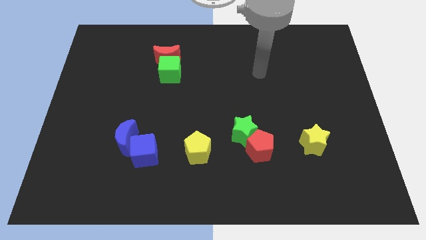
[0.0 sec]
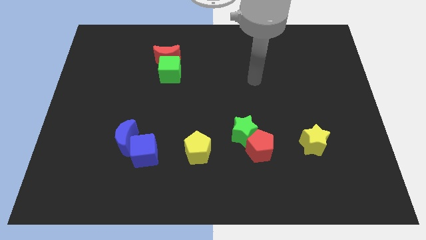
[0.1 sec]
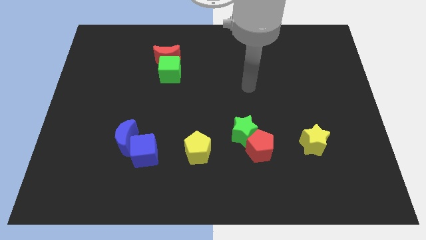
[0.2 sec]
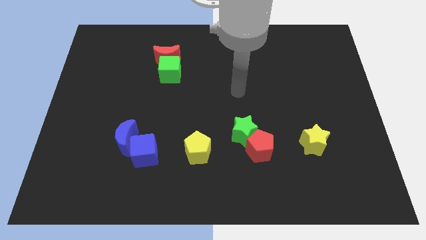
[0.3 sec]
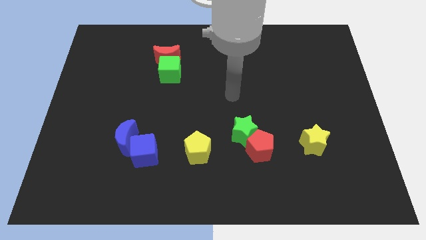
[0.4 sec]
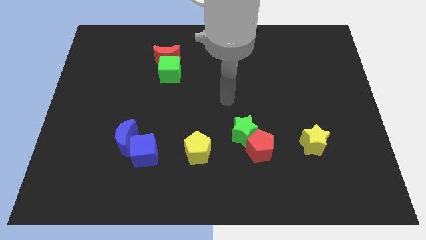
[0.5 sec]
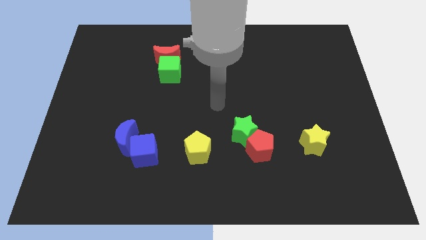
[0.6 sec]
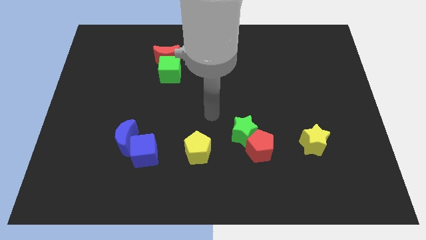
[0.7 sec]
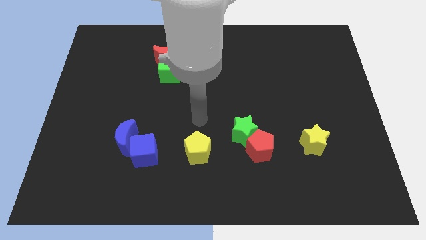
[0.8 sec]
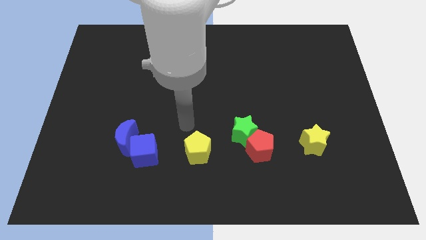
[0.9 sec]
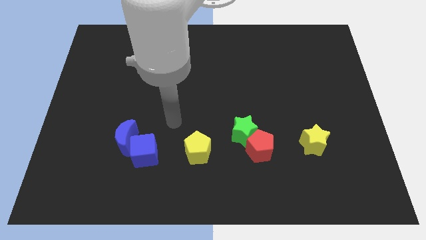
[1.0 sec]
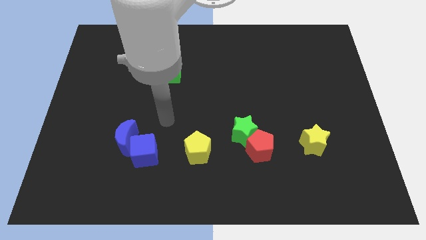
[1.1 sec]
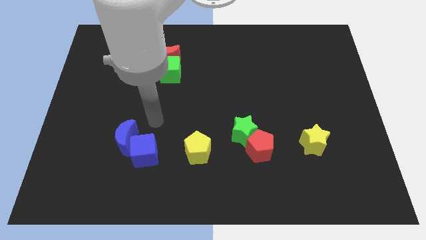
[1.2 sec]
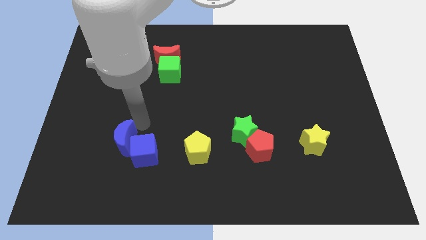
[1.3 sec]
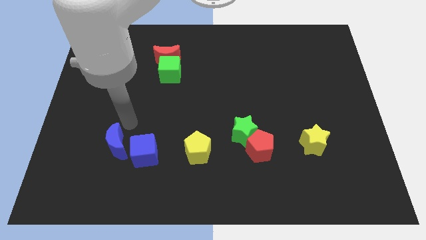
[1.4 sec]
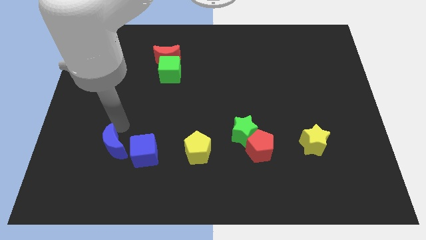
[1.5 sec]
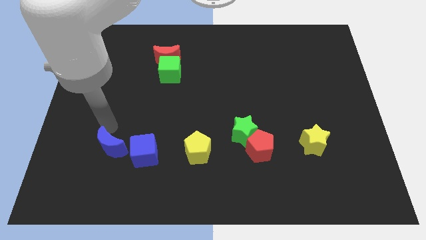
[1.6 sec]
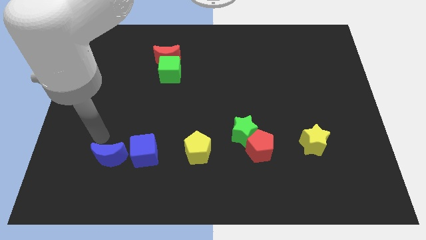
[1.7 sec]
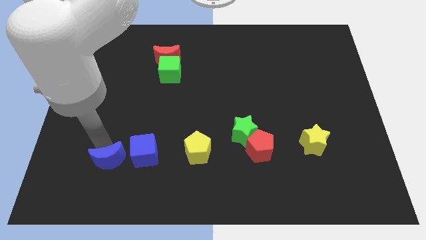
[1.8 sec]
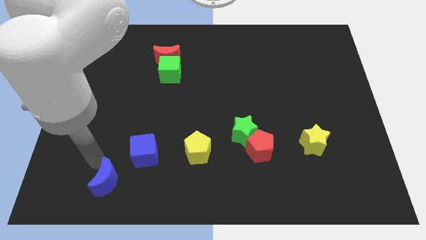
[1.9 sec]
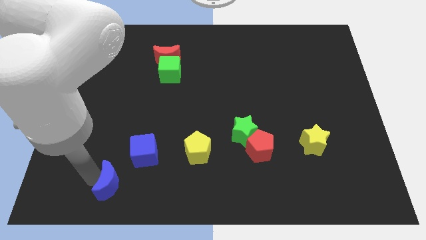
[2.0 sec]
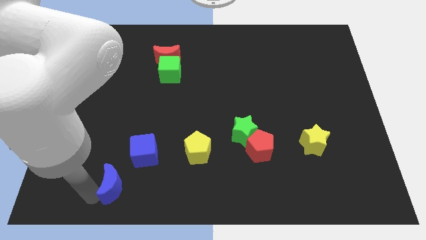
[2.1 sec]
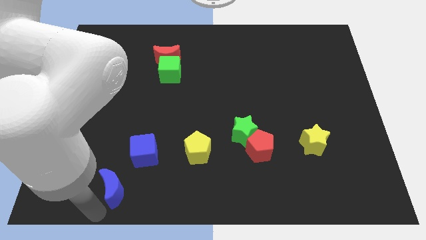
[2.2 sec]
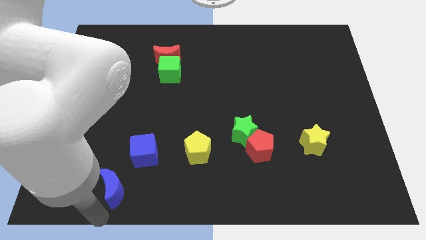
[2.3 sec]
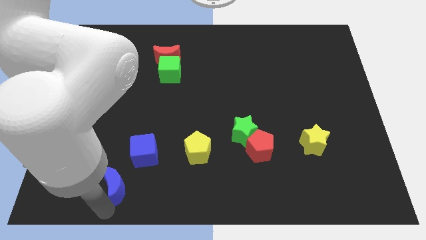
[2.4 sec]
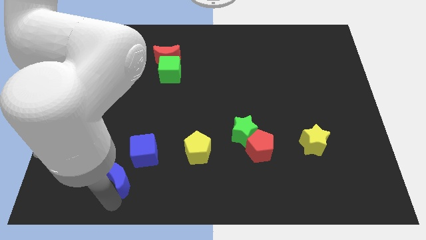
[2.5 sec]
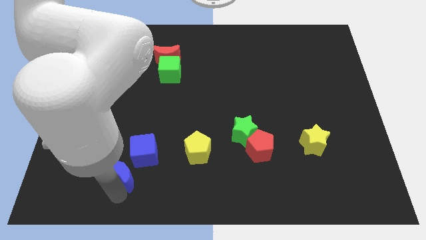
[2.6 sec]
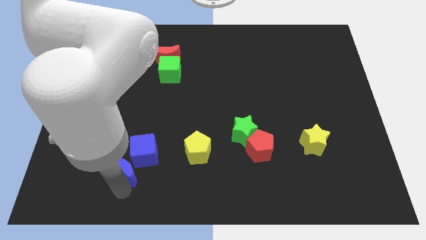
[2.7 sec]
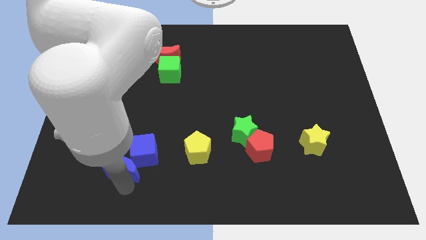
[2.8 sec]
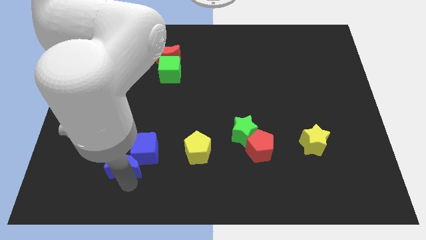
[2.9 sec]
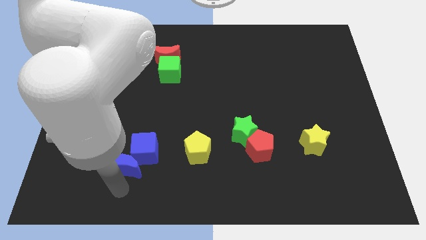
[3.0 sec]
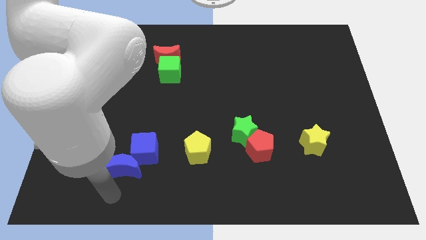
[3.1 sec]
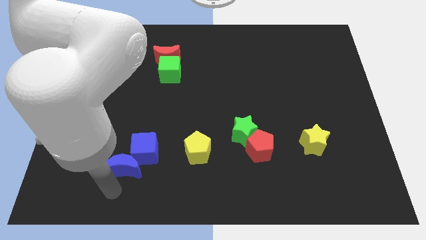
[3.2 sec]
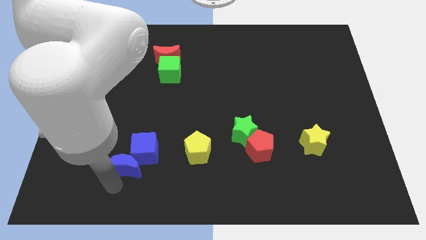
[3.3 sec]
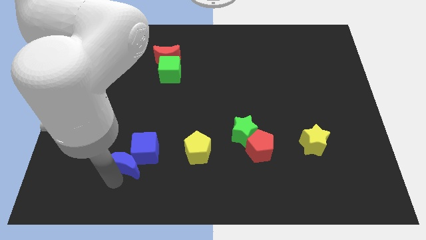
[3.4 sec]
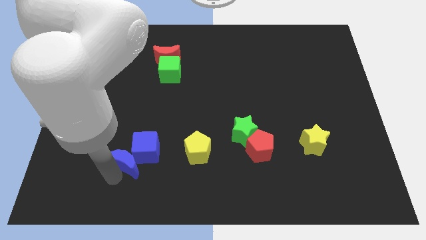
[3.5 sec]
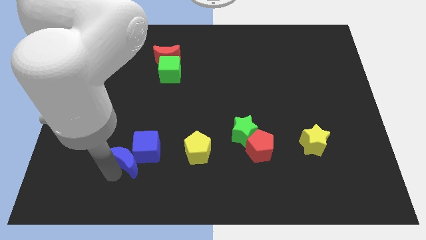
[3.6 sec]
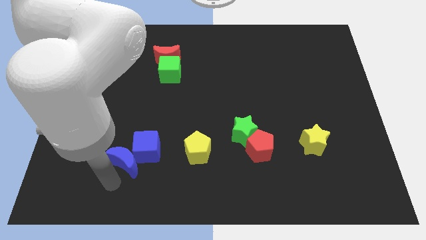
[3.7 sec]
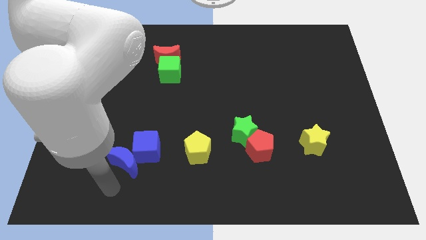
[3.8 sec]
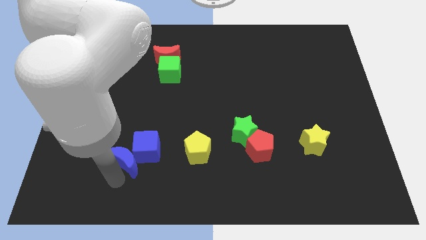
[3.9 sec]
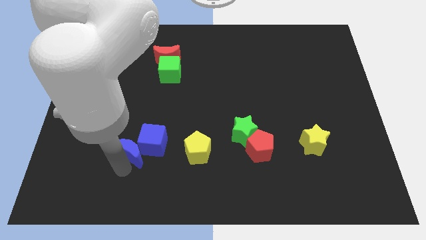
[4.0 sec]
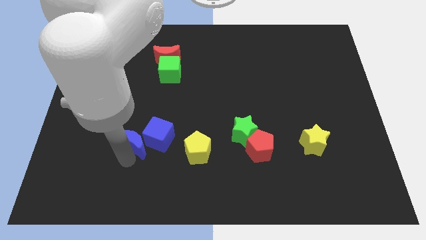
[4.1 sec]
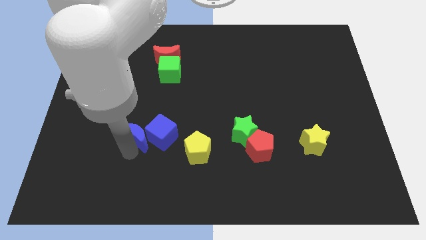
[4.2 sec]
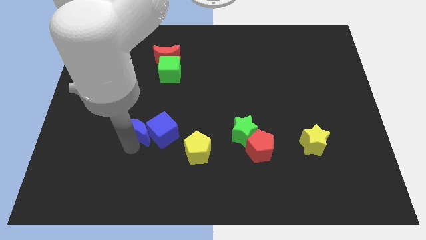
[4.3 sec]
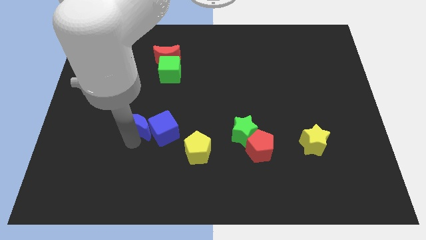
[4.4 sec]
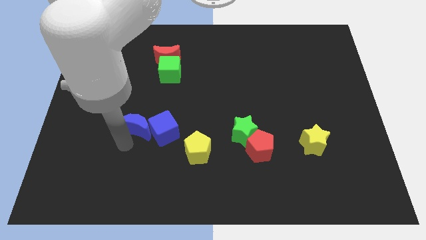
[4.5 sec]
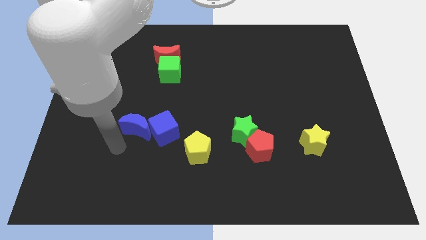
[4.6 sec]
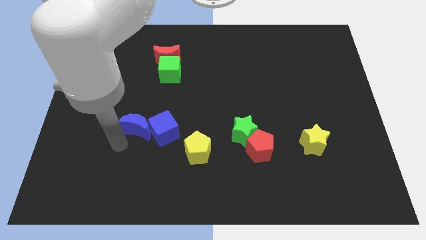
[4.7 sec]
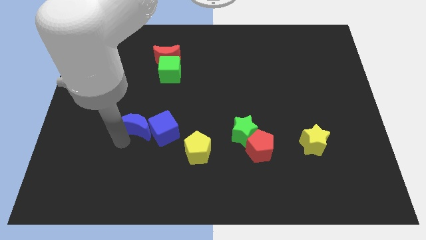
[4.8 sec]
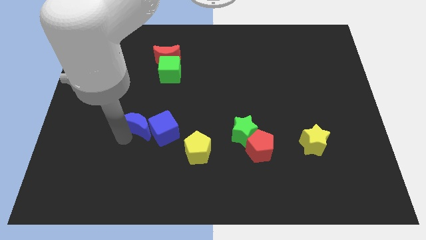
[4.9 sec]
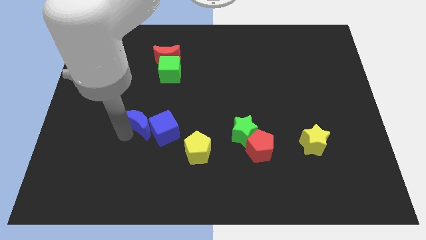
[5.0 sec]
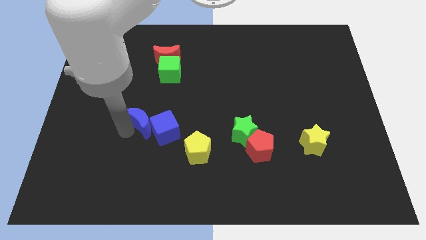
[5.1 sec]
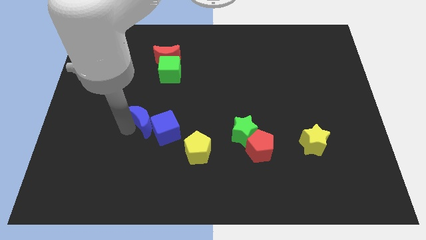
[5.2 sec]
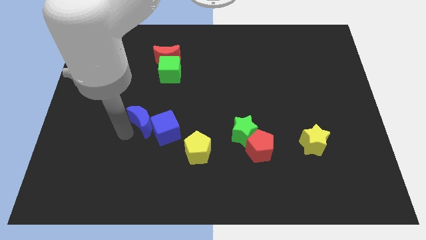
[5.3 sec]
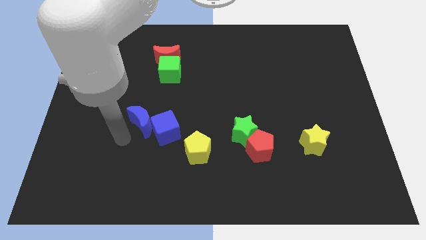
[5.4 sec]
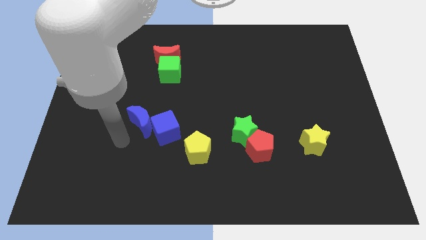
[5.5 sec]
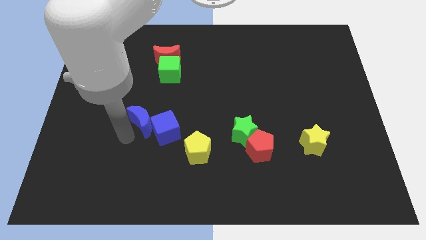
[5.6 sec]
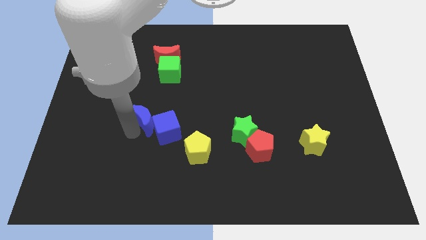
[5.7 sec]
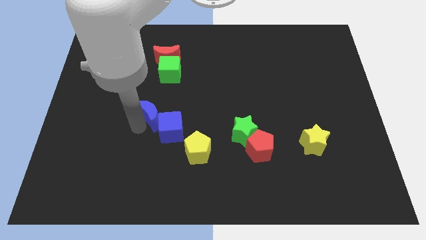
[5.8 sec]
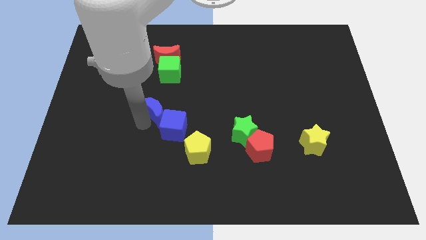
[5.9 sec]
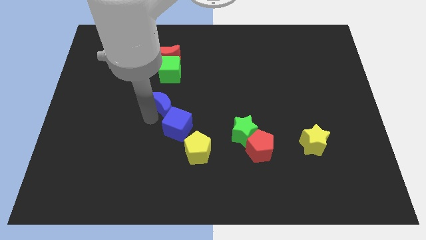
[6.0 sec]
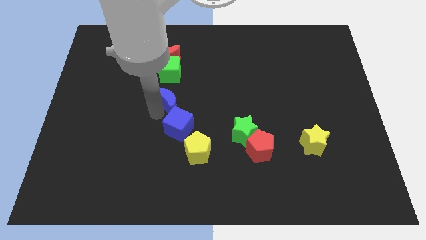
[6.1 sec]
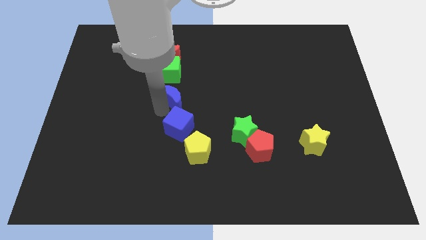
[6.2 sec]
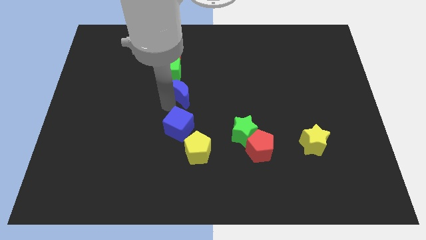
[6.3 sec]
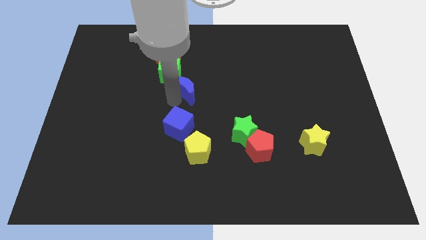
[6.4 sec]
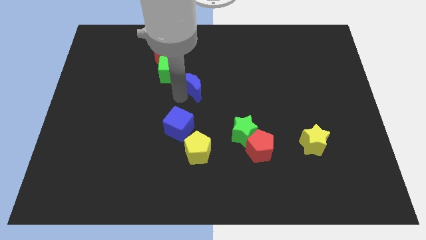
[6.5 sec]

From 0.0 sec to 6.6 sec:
slide the blue moon diagonally up and right

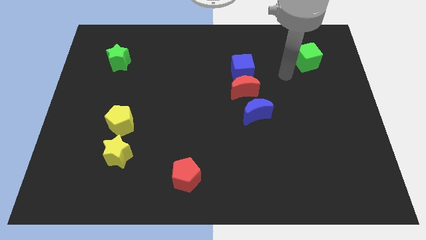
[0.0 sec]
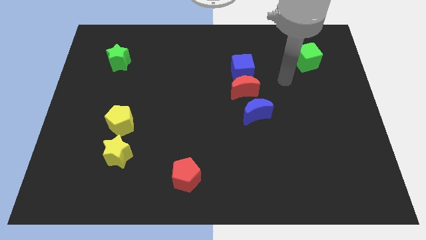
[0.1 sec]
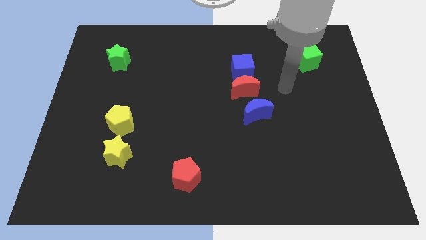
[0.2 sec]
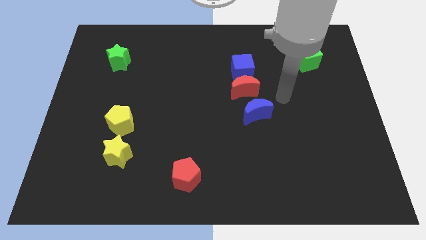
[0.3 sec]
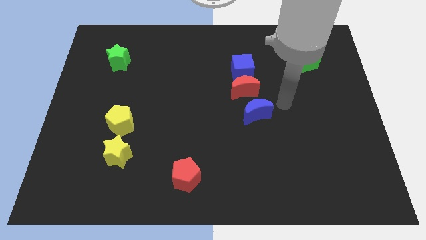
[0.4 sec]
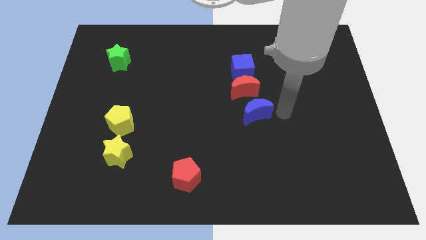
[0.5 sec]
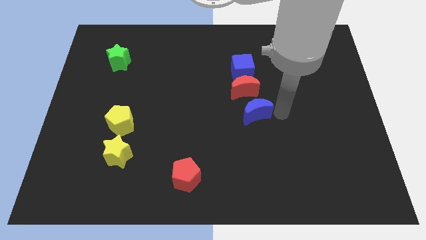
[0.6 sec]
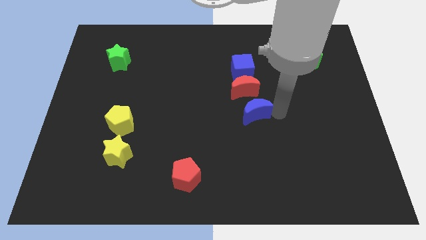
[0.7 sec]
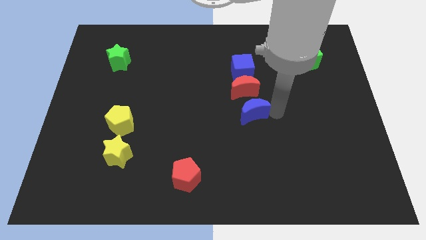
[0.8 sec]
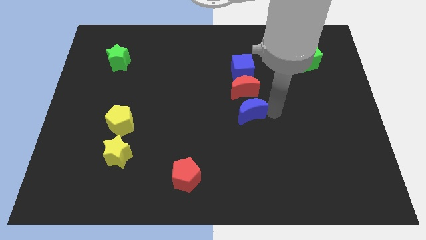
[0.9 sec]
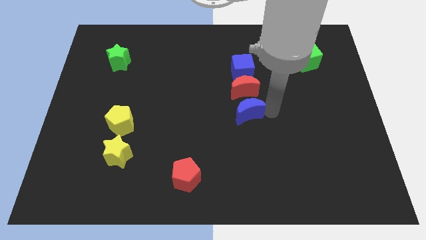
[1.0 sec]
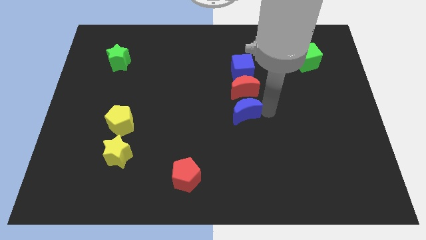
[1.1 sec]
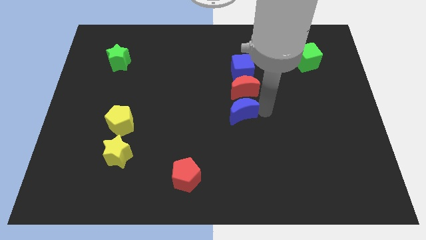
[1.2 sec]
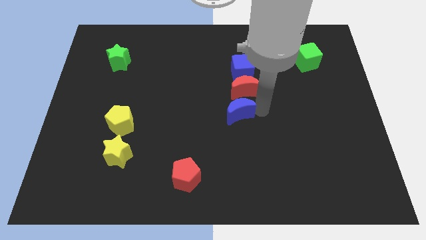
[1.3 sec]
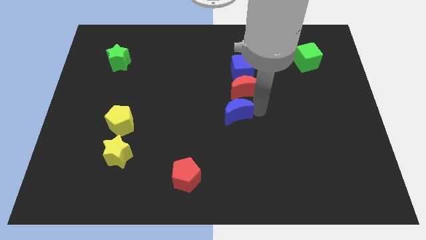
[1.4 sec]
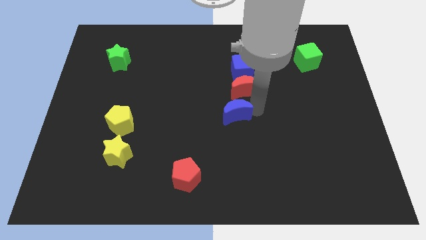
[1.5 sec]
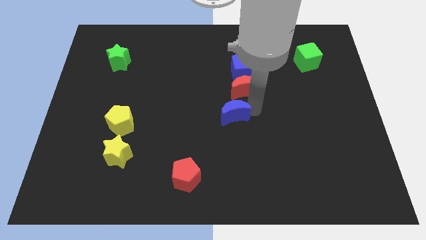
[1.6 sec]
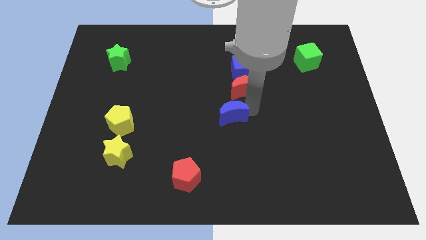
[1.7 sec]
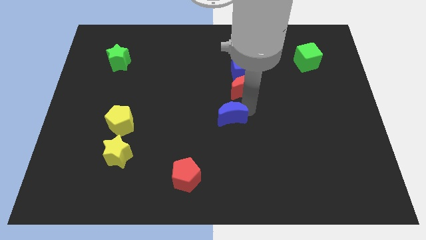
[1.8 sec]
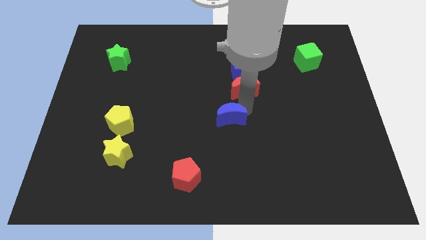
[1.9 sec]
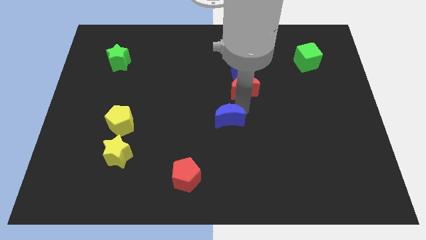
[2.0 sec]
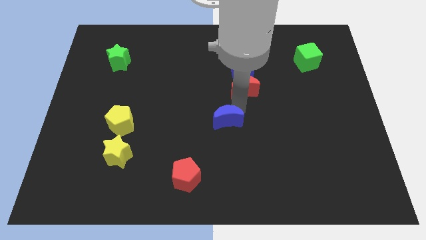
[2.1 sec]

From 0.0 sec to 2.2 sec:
slightly push the blue moon left
